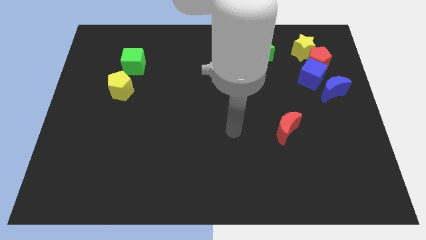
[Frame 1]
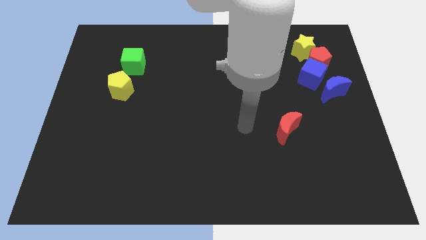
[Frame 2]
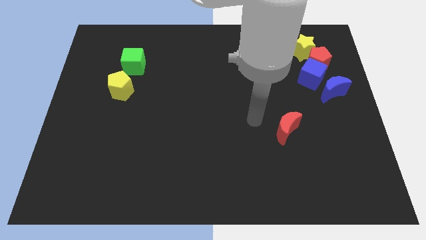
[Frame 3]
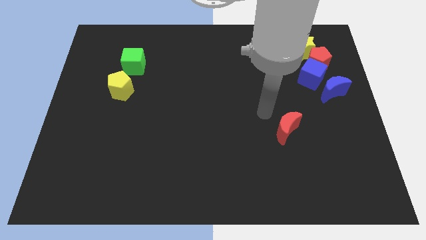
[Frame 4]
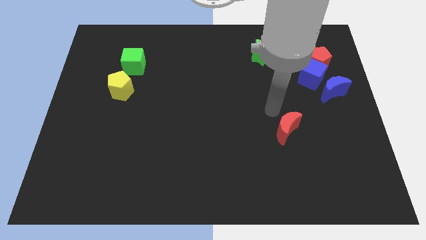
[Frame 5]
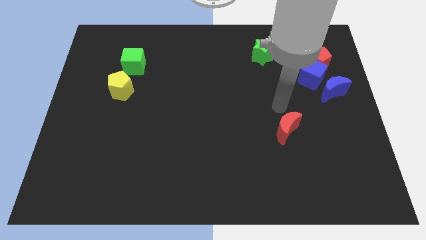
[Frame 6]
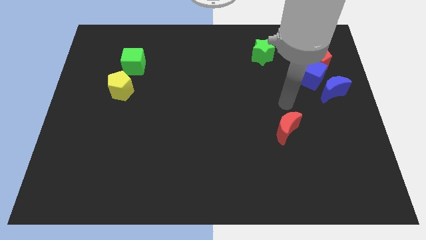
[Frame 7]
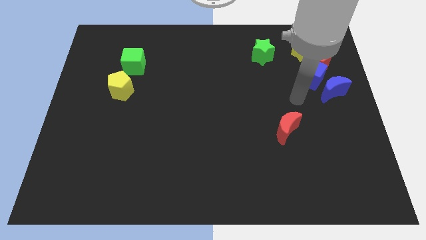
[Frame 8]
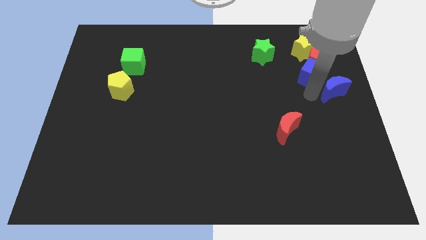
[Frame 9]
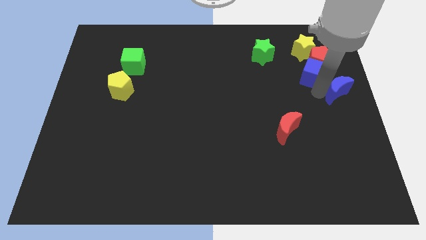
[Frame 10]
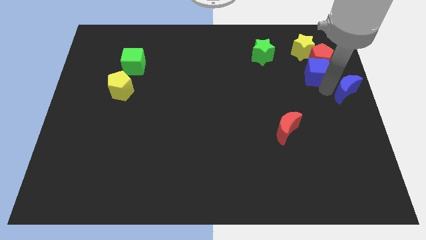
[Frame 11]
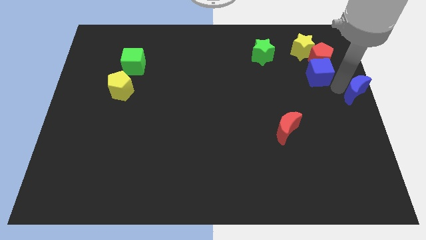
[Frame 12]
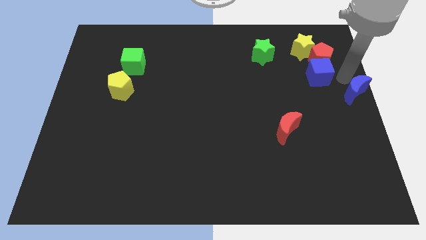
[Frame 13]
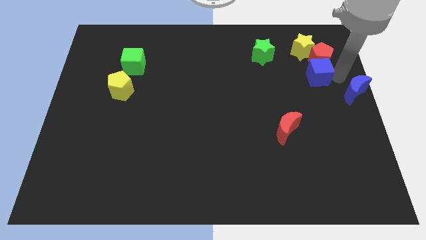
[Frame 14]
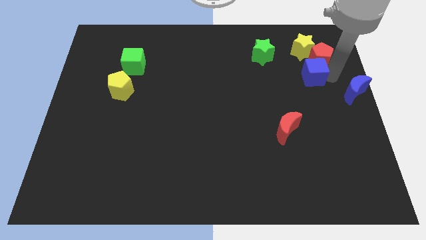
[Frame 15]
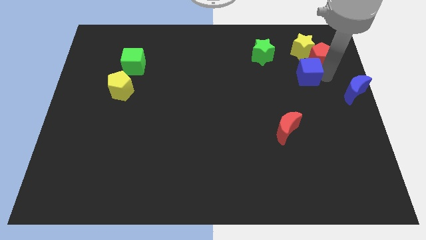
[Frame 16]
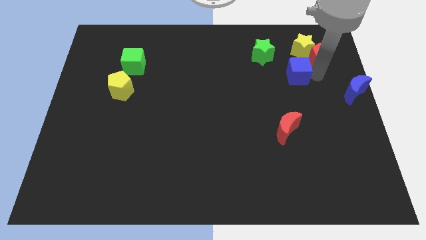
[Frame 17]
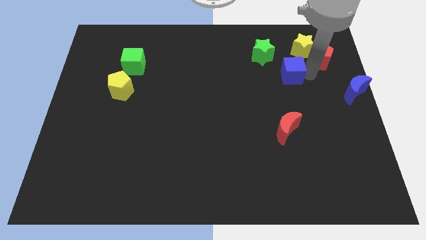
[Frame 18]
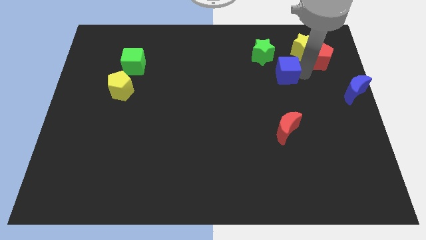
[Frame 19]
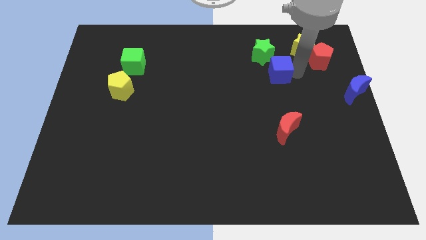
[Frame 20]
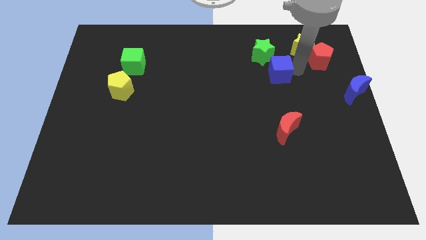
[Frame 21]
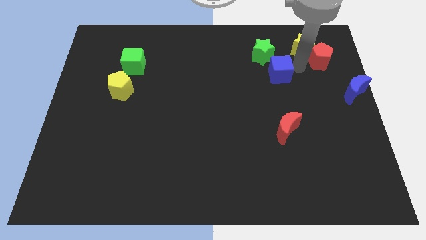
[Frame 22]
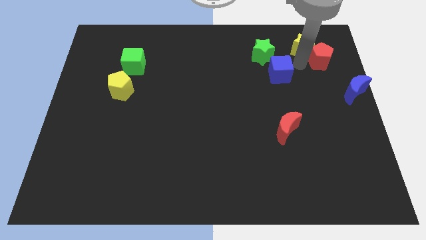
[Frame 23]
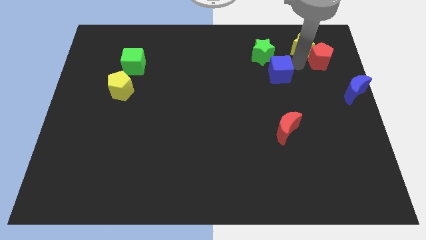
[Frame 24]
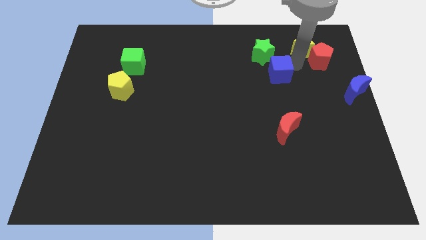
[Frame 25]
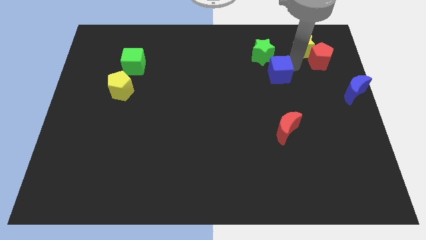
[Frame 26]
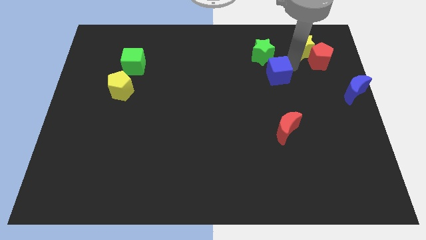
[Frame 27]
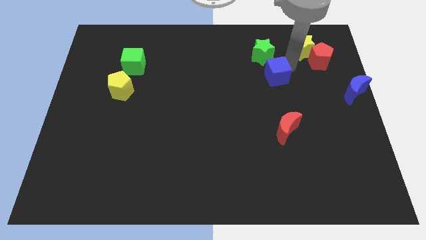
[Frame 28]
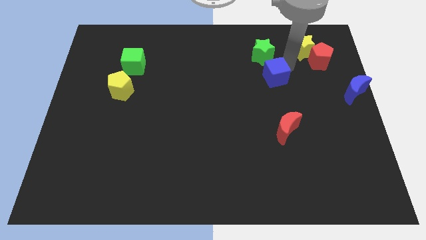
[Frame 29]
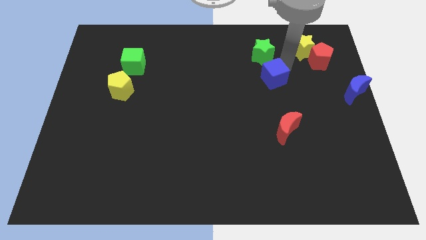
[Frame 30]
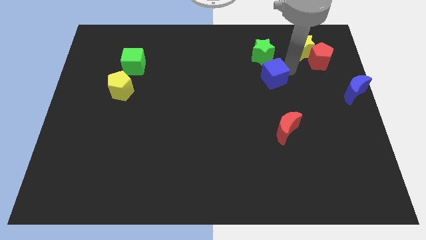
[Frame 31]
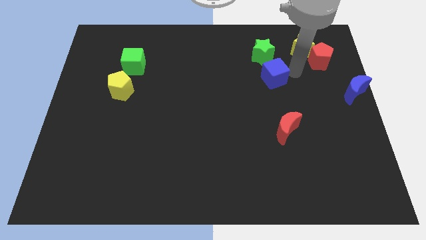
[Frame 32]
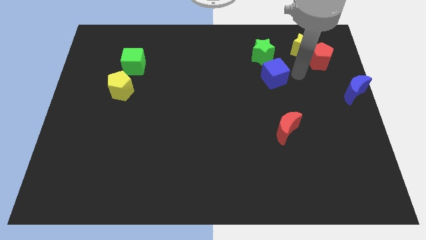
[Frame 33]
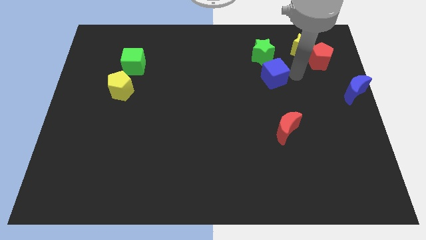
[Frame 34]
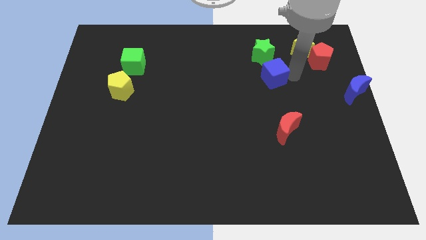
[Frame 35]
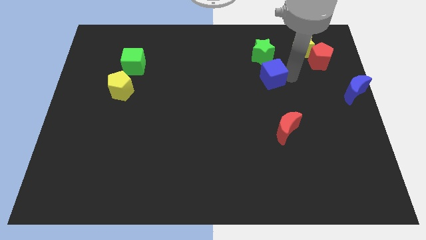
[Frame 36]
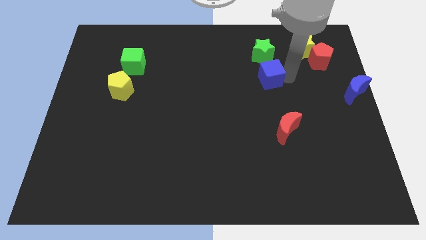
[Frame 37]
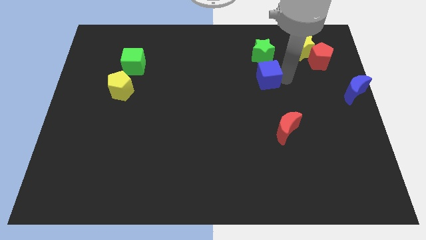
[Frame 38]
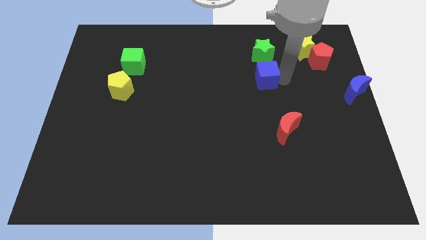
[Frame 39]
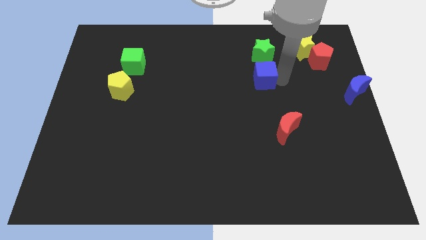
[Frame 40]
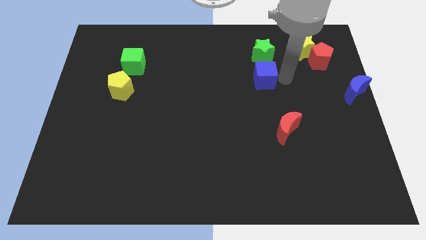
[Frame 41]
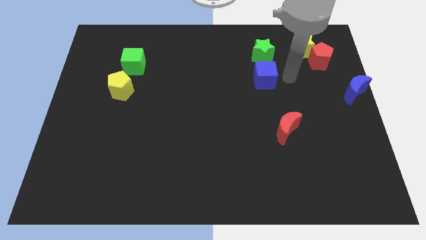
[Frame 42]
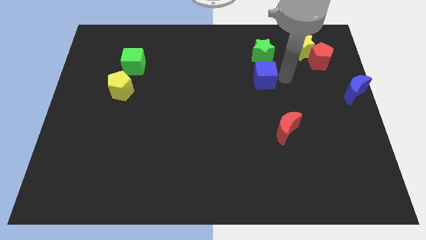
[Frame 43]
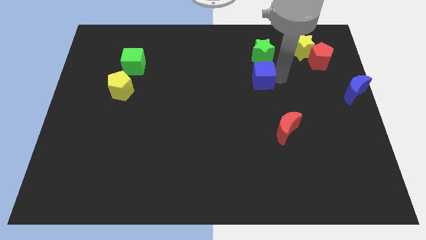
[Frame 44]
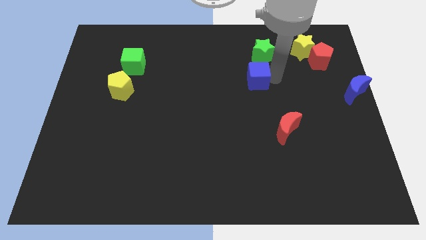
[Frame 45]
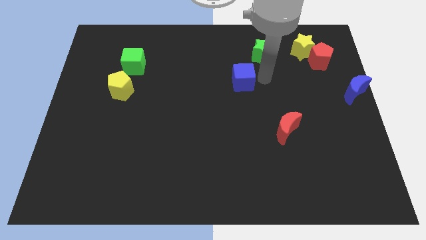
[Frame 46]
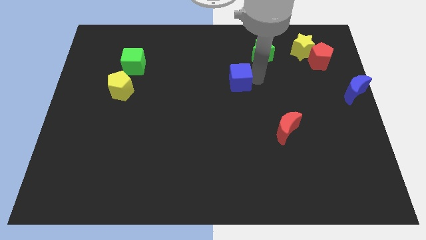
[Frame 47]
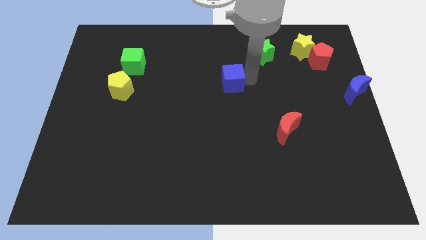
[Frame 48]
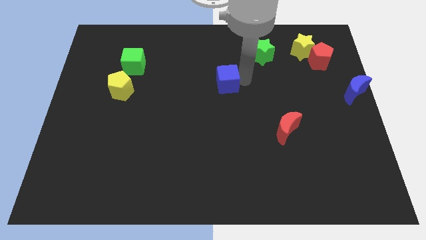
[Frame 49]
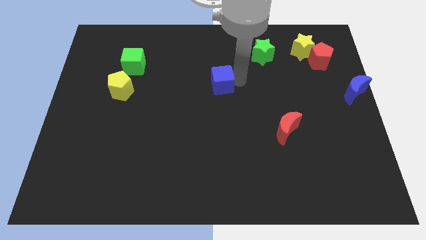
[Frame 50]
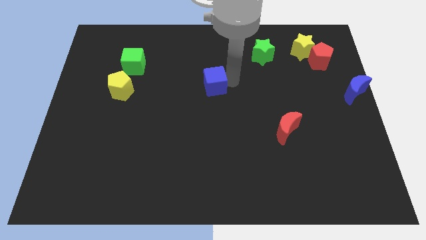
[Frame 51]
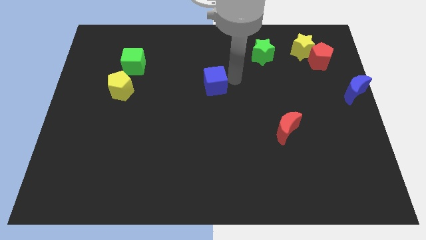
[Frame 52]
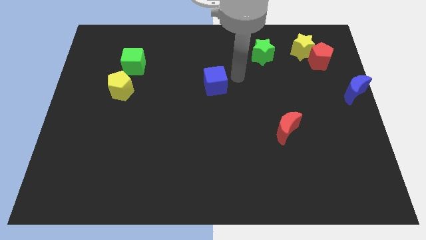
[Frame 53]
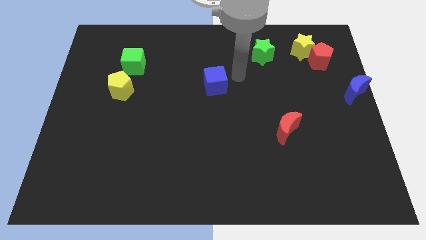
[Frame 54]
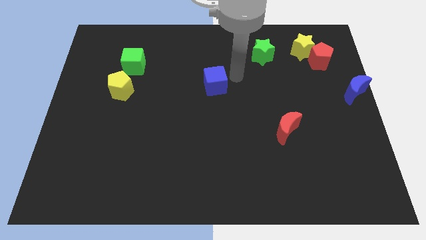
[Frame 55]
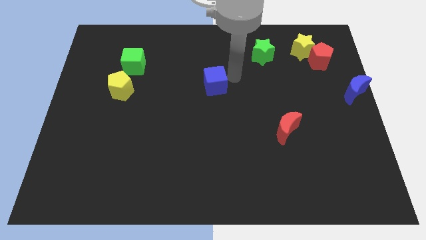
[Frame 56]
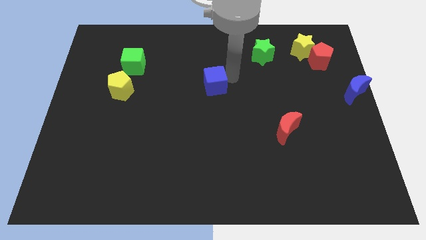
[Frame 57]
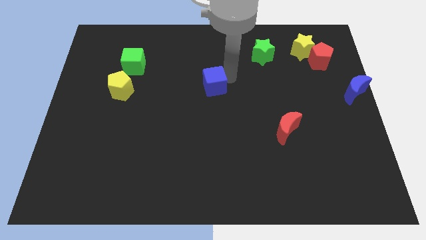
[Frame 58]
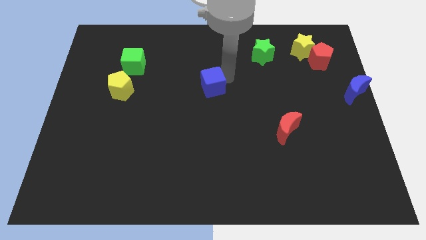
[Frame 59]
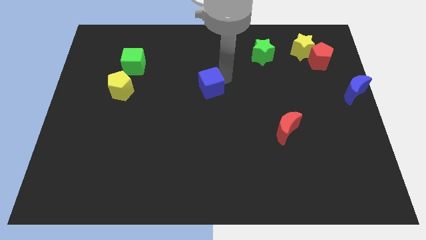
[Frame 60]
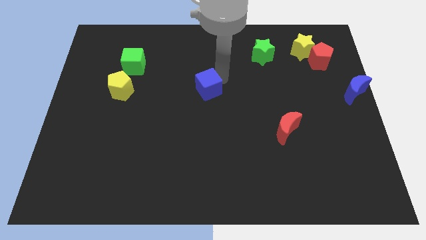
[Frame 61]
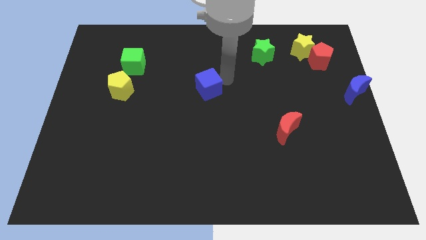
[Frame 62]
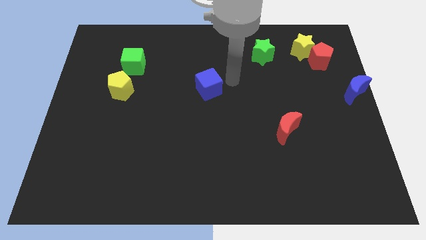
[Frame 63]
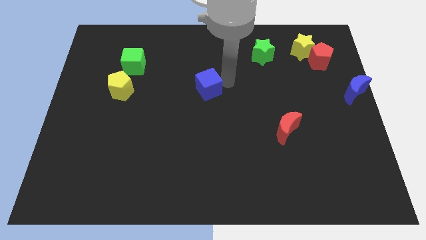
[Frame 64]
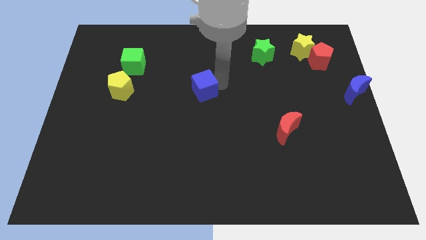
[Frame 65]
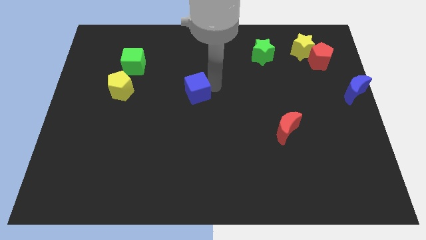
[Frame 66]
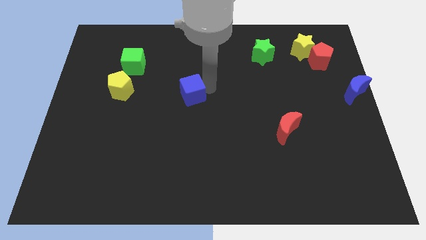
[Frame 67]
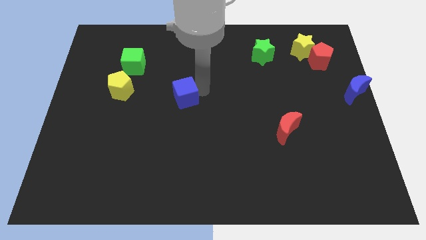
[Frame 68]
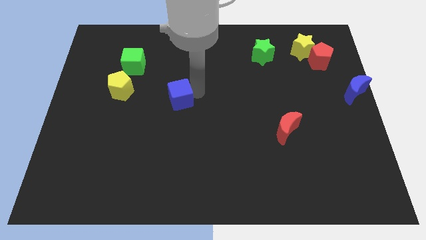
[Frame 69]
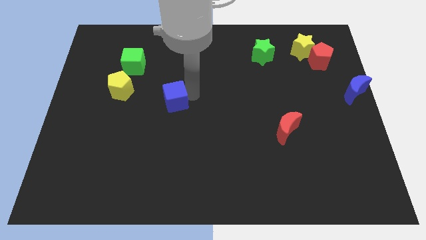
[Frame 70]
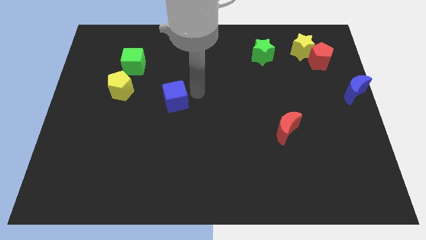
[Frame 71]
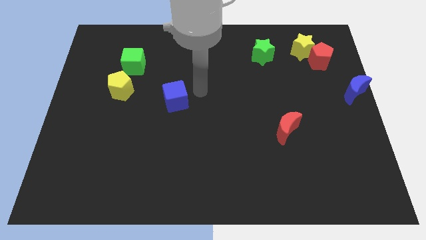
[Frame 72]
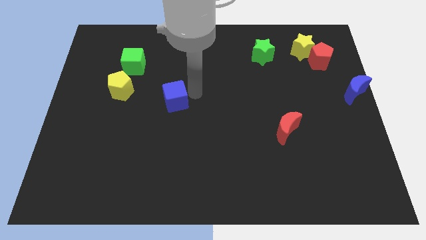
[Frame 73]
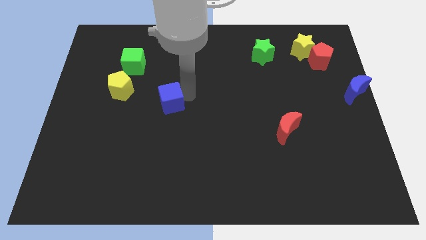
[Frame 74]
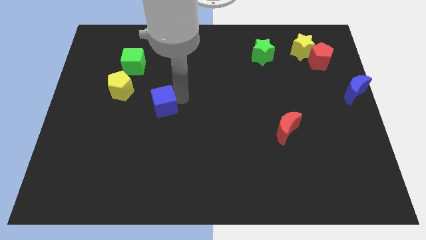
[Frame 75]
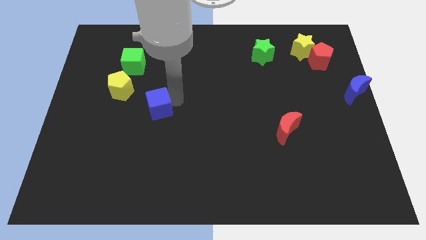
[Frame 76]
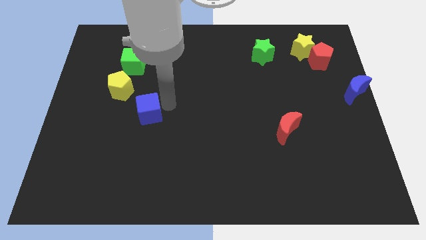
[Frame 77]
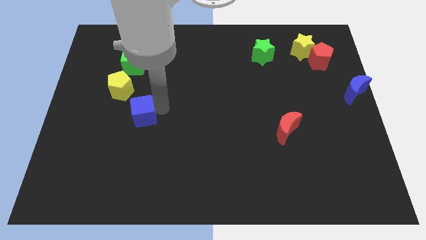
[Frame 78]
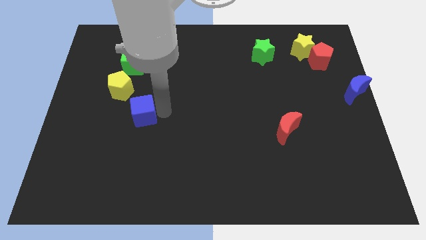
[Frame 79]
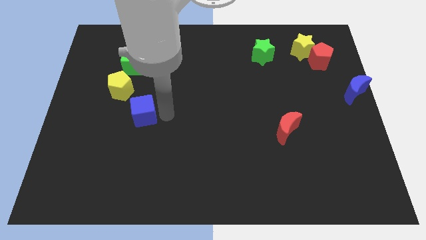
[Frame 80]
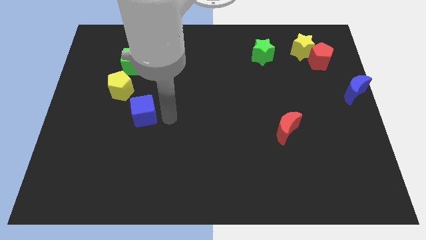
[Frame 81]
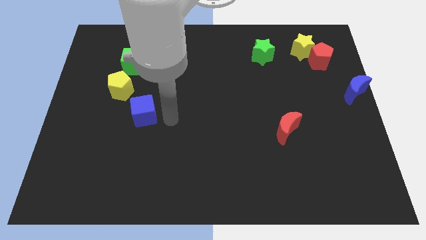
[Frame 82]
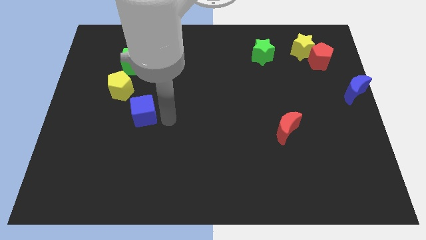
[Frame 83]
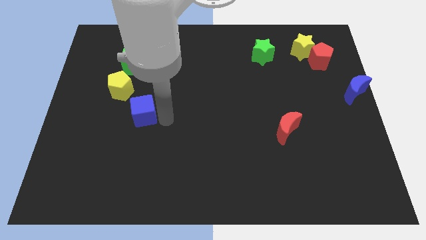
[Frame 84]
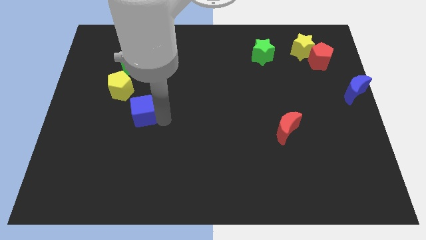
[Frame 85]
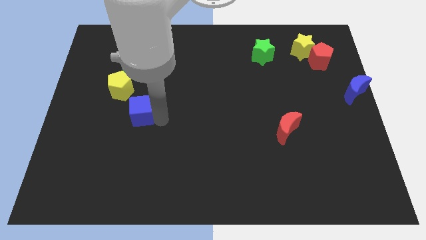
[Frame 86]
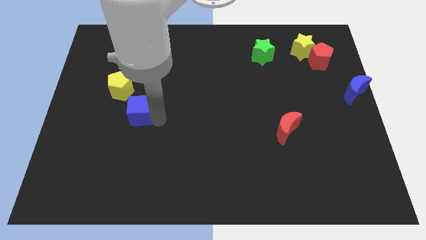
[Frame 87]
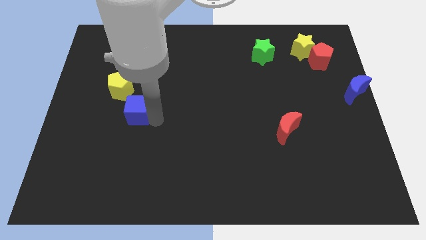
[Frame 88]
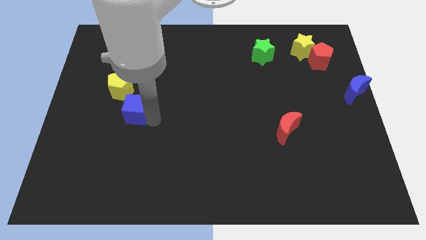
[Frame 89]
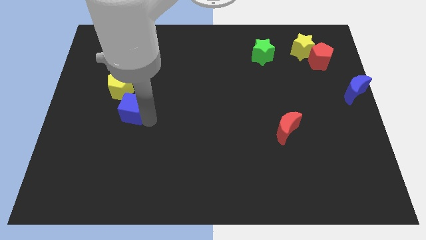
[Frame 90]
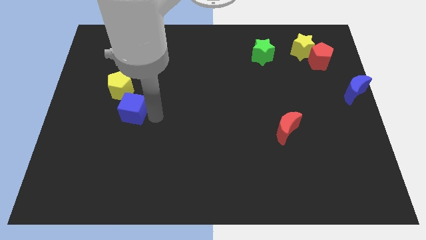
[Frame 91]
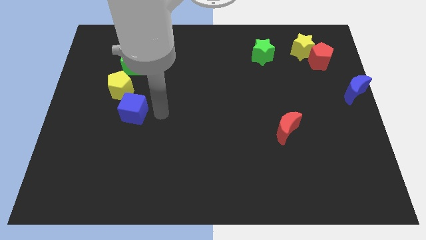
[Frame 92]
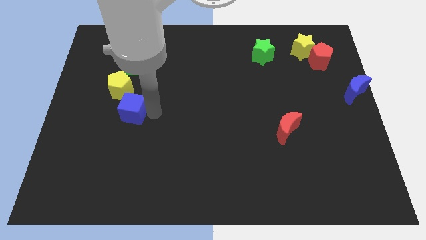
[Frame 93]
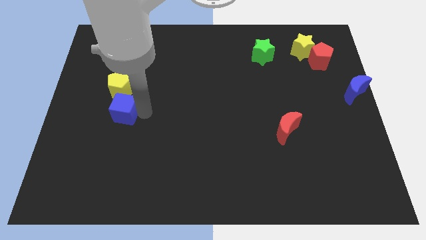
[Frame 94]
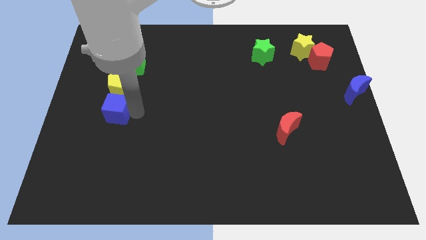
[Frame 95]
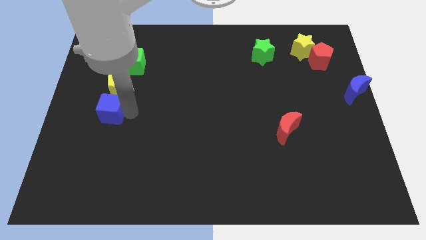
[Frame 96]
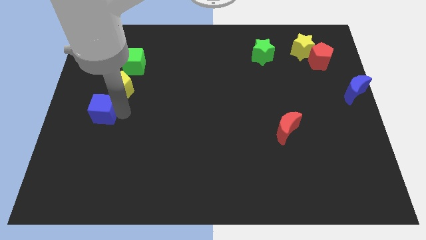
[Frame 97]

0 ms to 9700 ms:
put the blue cube to the center left
